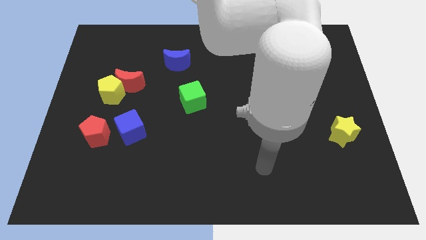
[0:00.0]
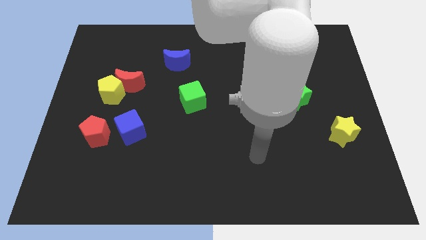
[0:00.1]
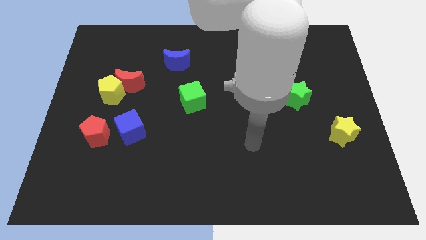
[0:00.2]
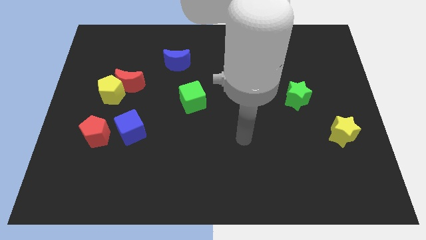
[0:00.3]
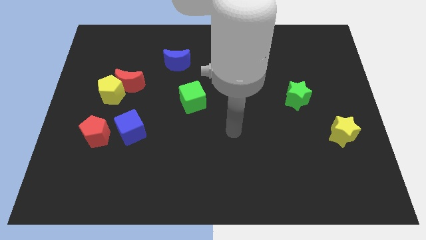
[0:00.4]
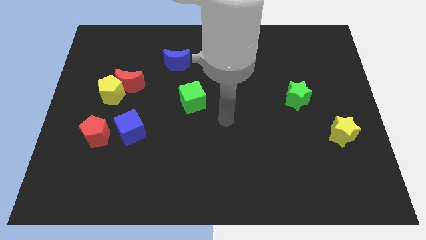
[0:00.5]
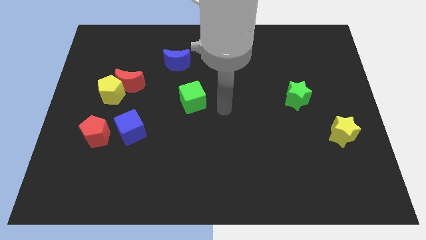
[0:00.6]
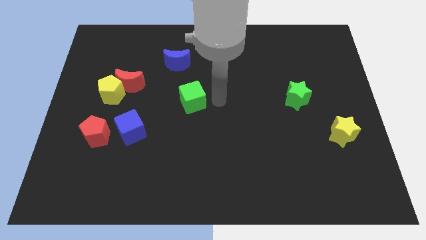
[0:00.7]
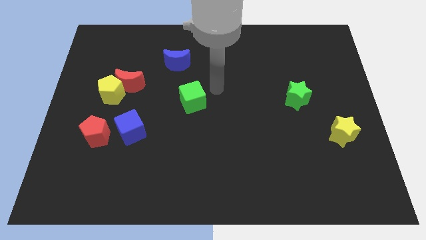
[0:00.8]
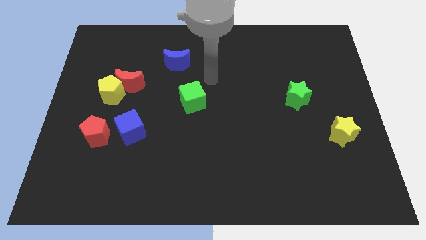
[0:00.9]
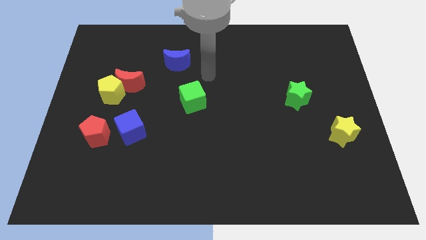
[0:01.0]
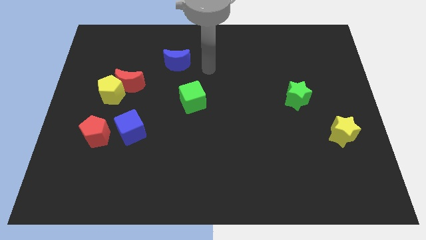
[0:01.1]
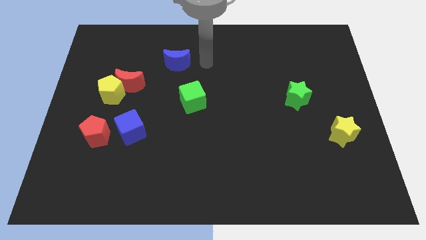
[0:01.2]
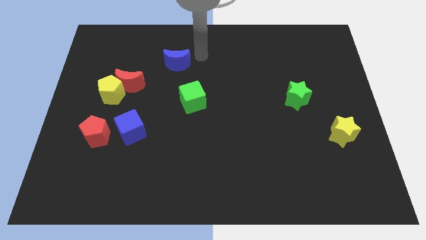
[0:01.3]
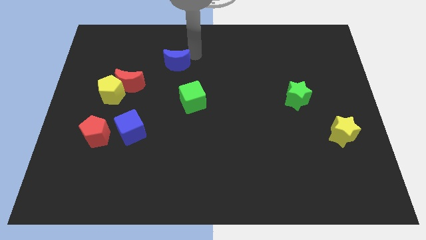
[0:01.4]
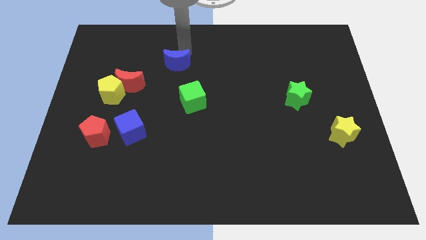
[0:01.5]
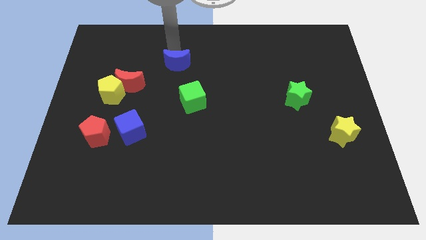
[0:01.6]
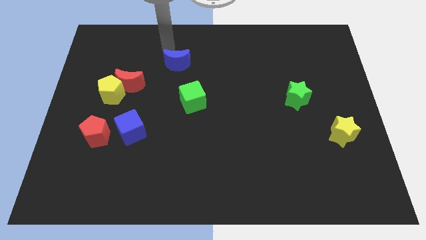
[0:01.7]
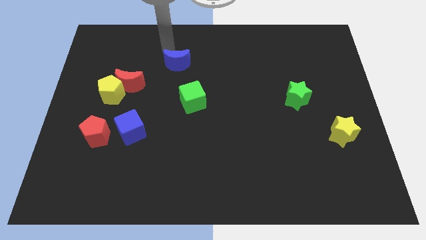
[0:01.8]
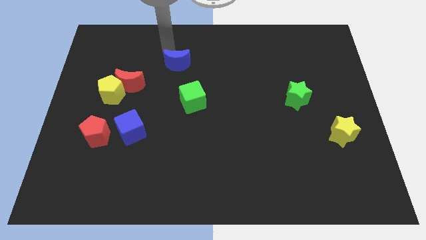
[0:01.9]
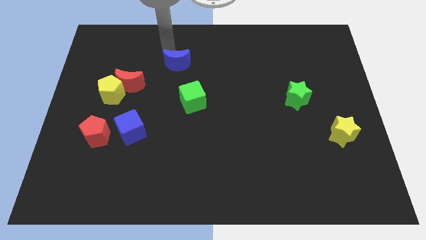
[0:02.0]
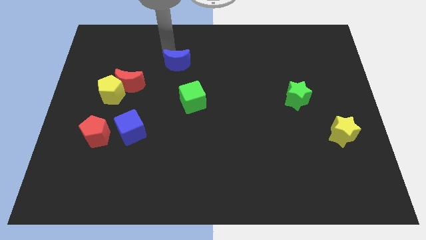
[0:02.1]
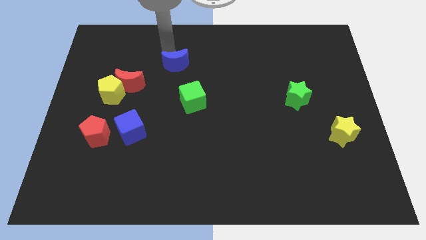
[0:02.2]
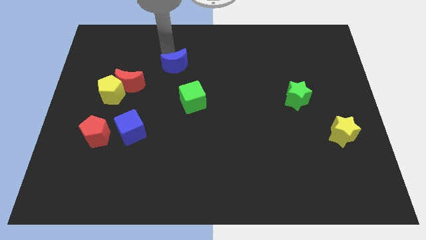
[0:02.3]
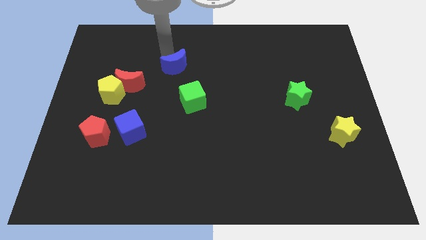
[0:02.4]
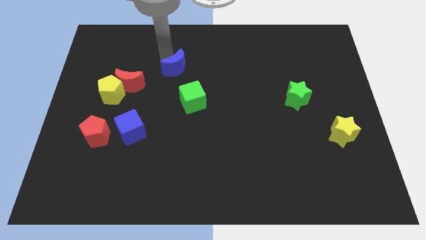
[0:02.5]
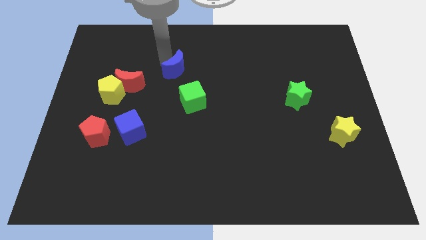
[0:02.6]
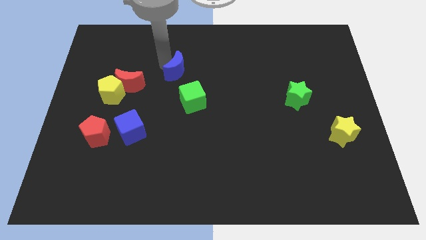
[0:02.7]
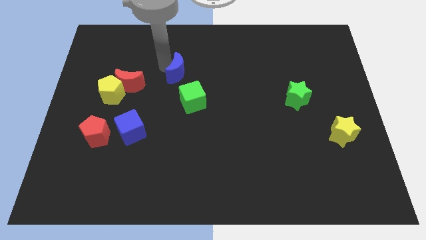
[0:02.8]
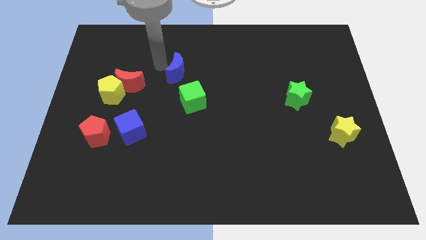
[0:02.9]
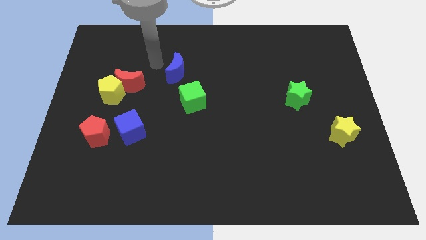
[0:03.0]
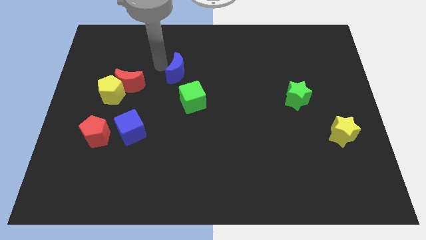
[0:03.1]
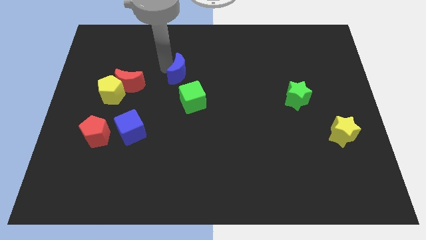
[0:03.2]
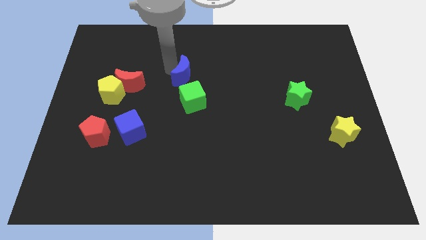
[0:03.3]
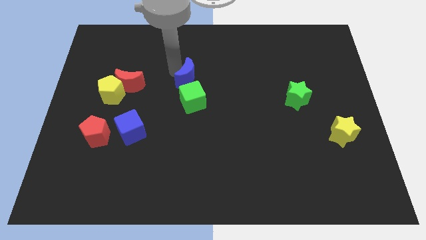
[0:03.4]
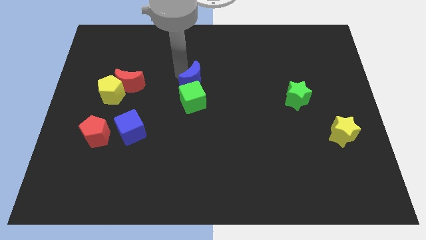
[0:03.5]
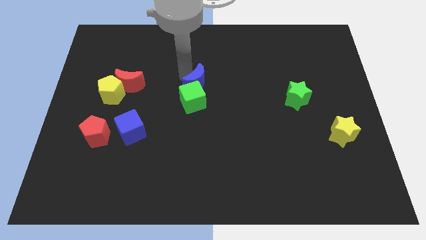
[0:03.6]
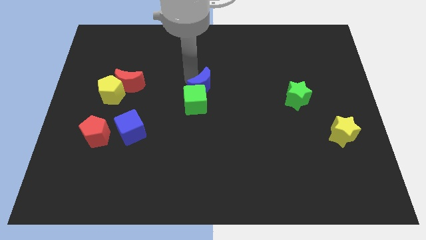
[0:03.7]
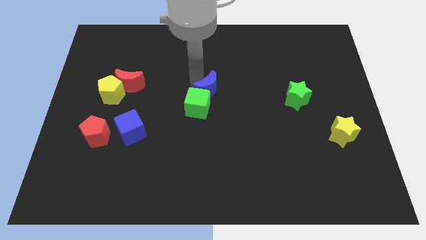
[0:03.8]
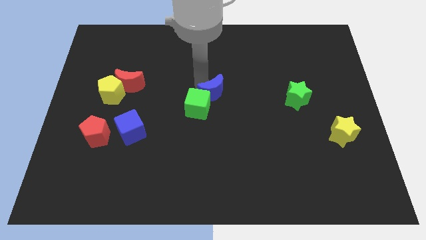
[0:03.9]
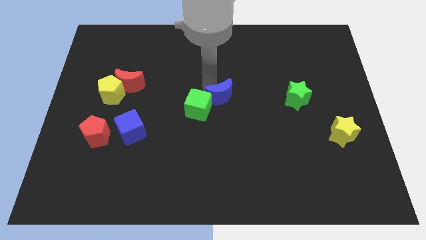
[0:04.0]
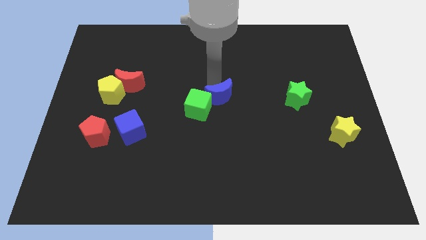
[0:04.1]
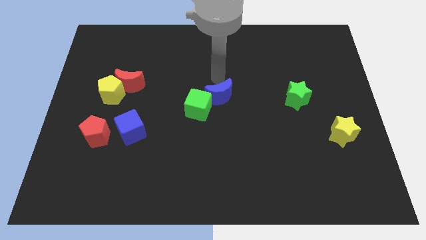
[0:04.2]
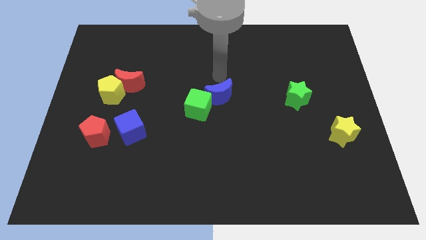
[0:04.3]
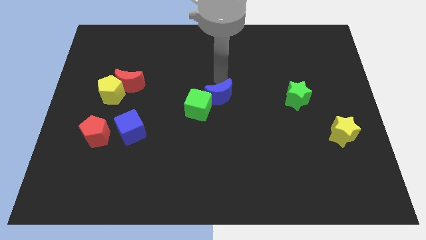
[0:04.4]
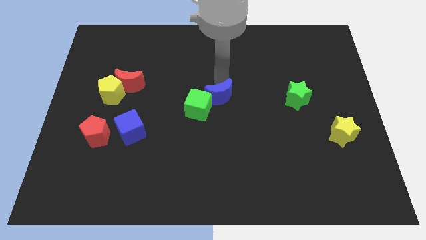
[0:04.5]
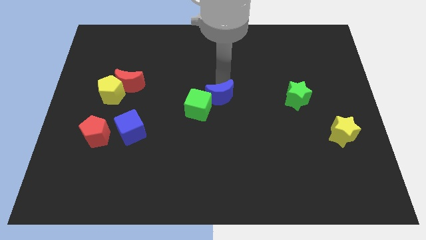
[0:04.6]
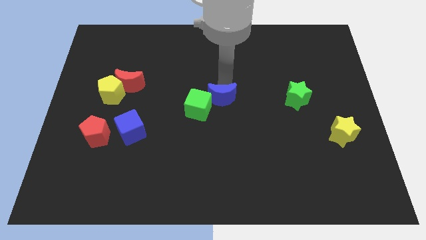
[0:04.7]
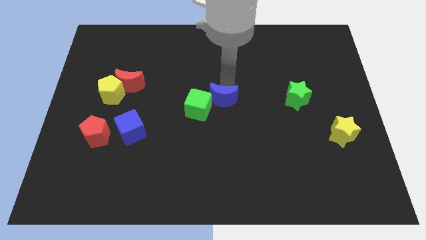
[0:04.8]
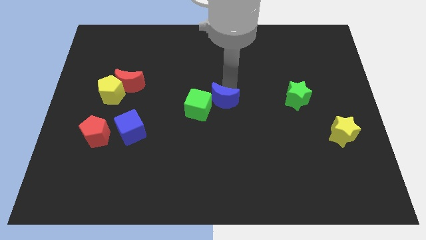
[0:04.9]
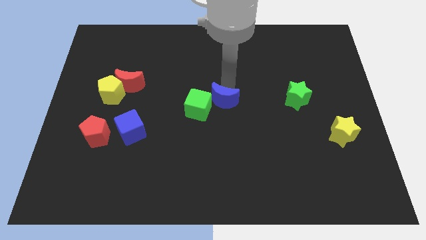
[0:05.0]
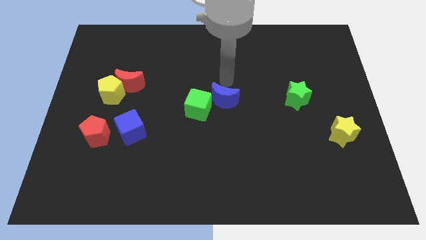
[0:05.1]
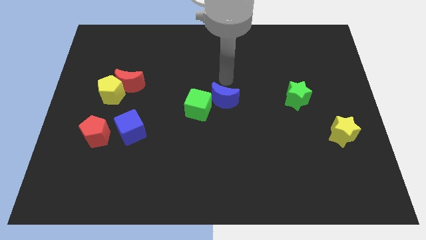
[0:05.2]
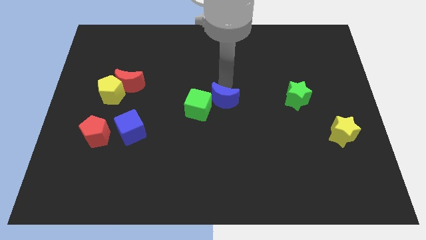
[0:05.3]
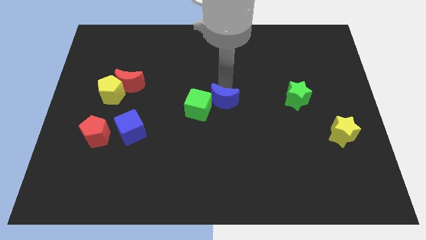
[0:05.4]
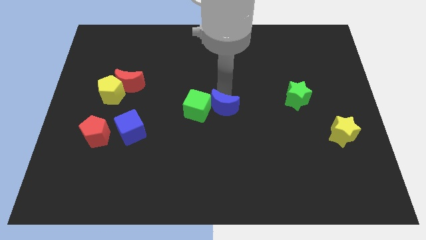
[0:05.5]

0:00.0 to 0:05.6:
push the blue moon to the bottom right side of the green cube

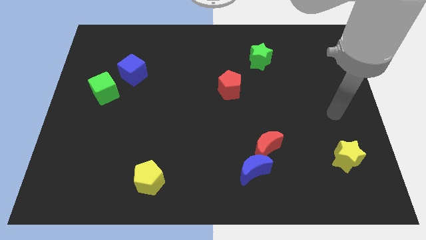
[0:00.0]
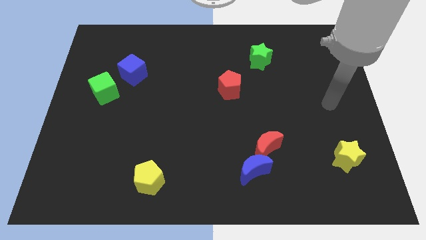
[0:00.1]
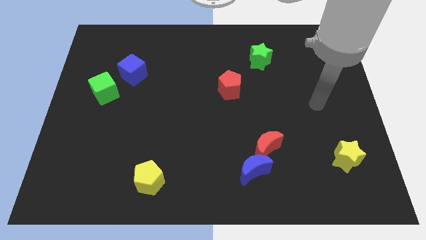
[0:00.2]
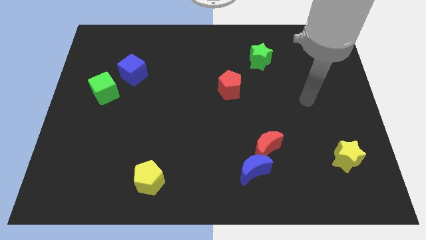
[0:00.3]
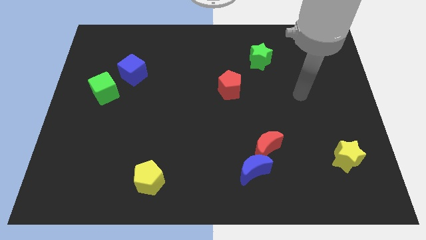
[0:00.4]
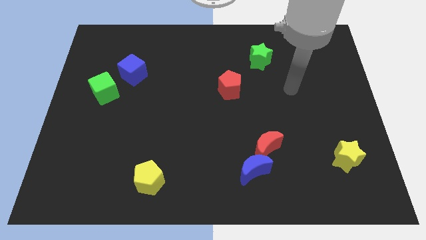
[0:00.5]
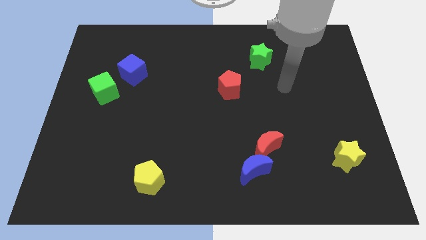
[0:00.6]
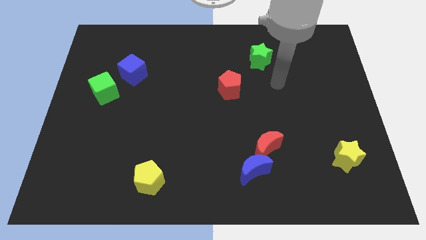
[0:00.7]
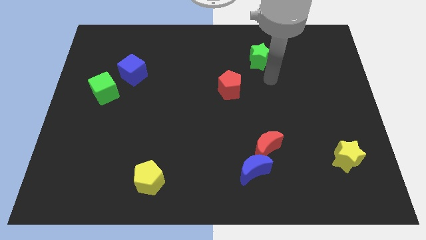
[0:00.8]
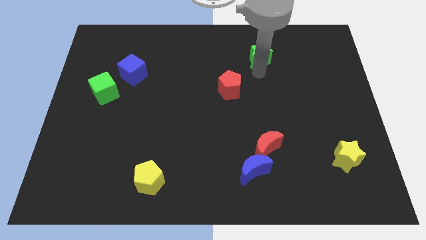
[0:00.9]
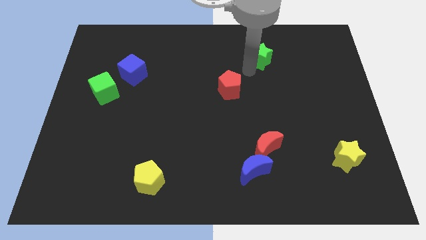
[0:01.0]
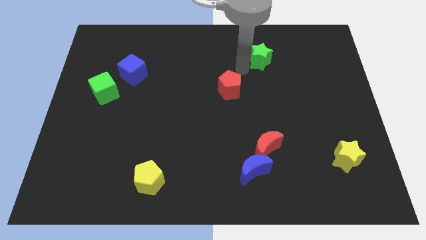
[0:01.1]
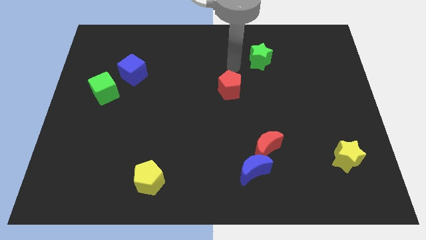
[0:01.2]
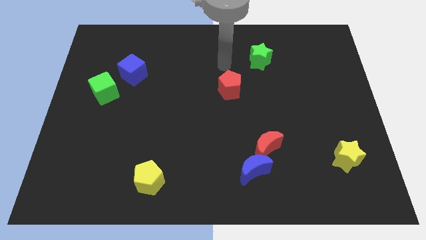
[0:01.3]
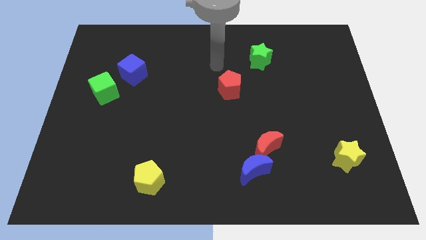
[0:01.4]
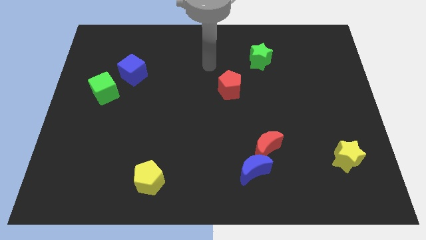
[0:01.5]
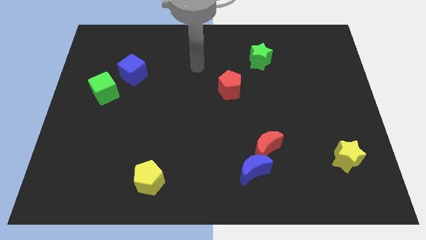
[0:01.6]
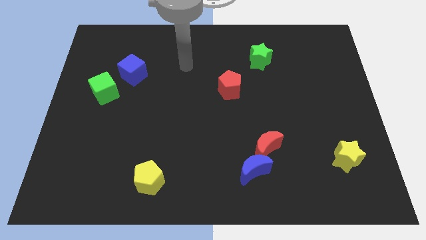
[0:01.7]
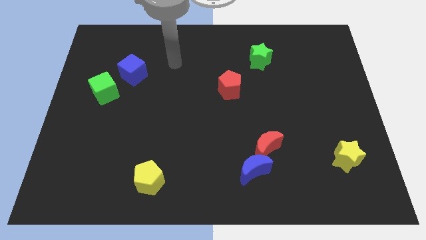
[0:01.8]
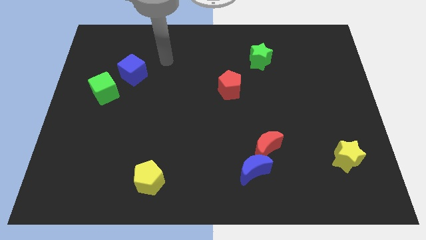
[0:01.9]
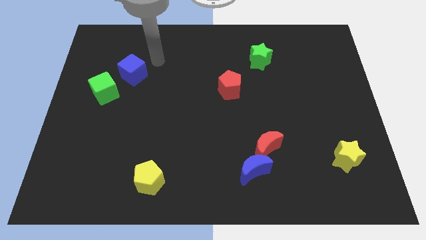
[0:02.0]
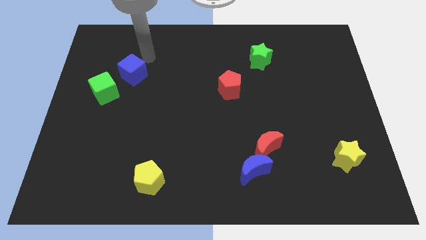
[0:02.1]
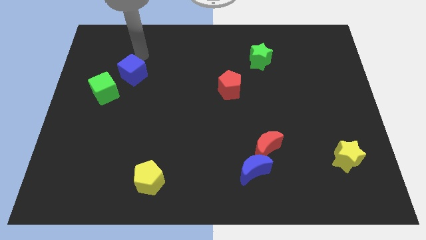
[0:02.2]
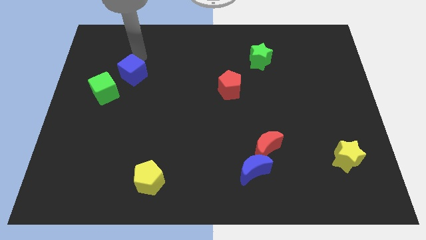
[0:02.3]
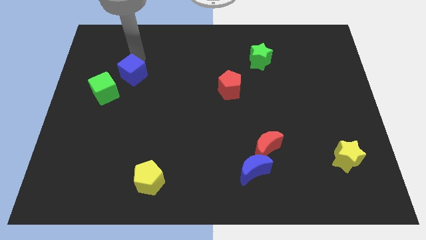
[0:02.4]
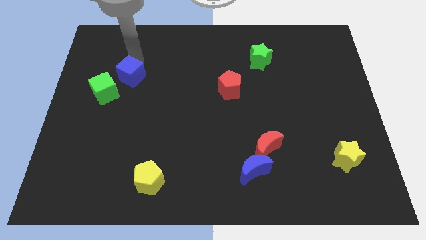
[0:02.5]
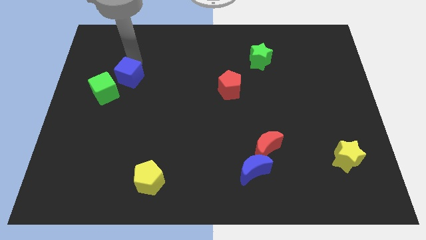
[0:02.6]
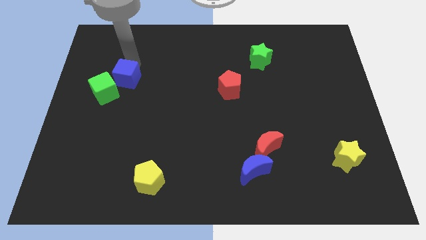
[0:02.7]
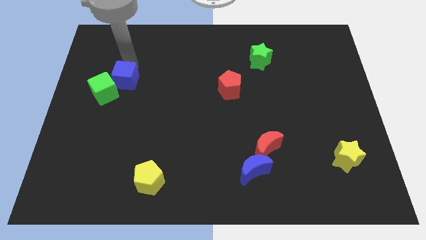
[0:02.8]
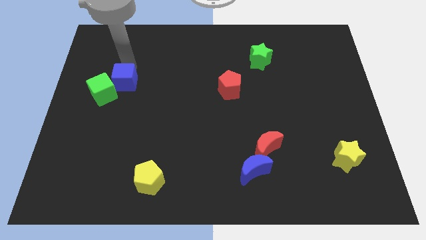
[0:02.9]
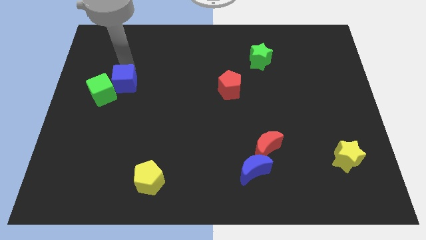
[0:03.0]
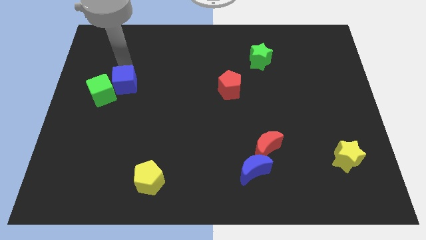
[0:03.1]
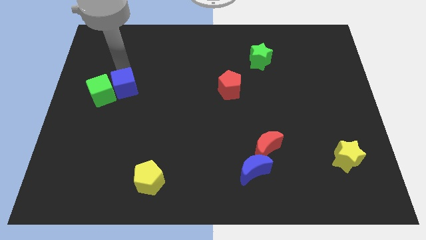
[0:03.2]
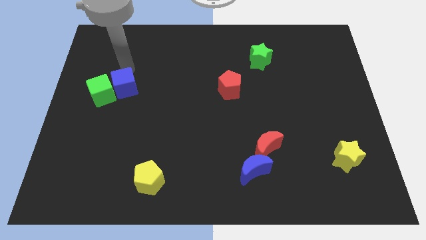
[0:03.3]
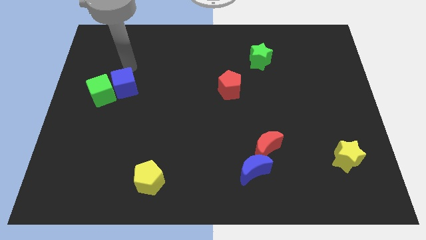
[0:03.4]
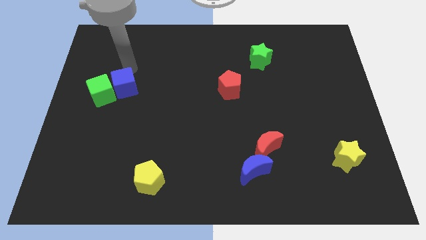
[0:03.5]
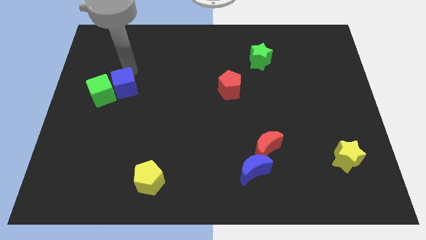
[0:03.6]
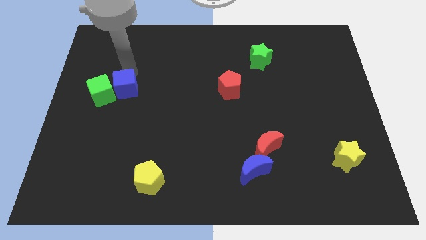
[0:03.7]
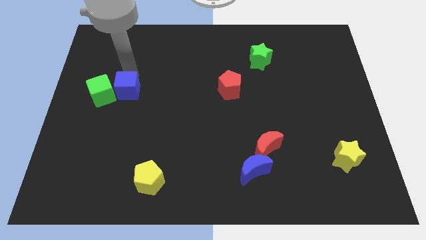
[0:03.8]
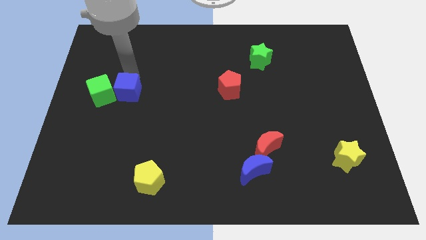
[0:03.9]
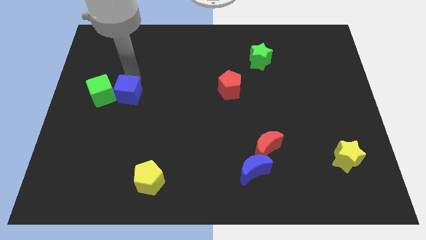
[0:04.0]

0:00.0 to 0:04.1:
push the blue cube diagonally down and to the right of the green cube
